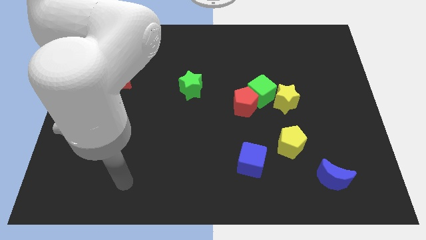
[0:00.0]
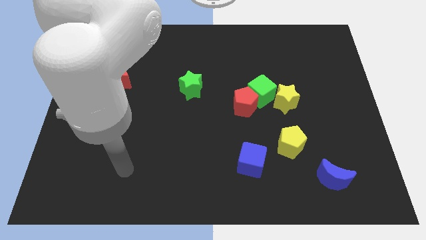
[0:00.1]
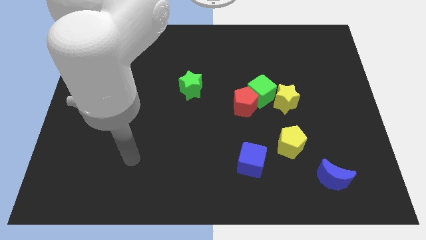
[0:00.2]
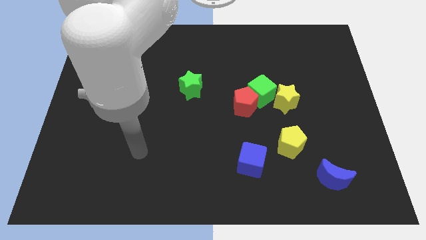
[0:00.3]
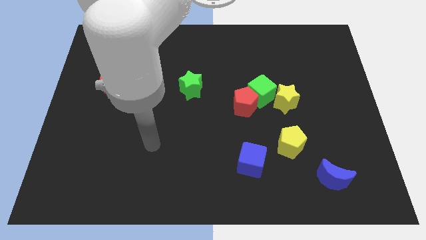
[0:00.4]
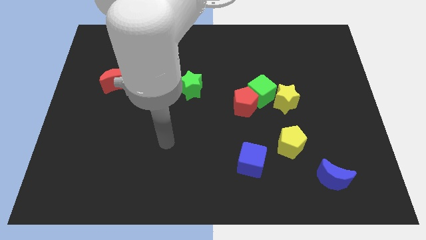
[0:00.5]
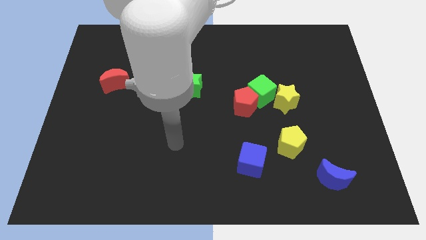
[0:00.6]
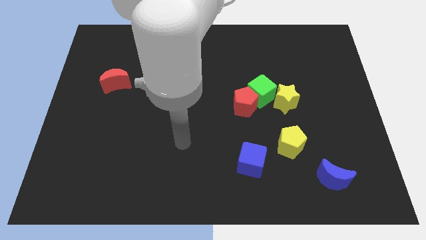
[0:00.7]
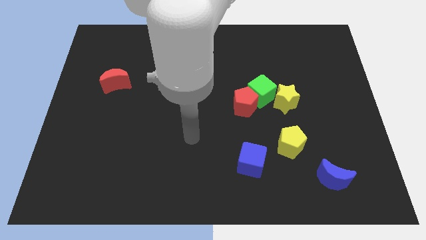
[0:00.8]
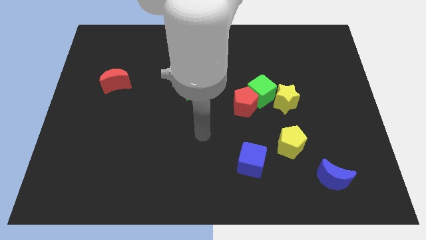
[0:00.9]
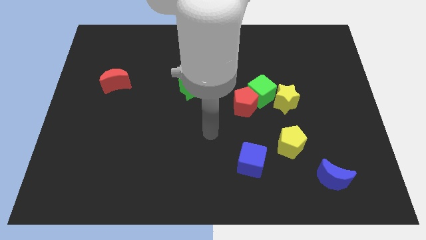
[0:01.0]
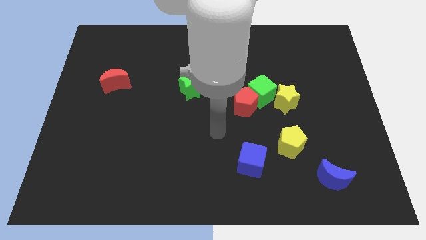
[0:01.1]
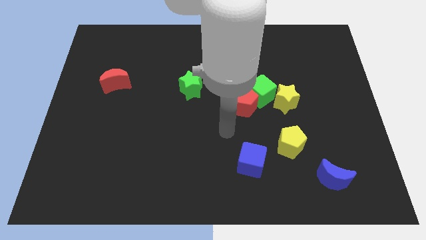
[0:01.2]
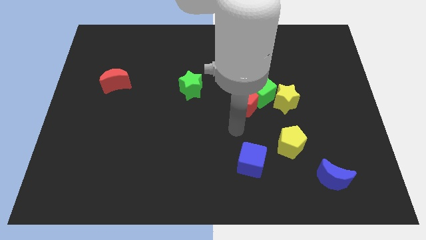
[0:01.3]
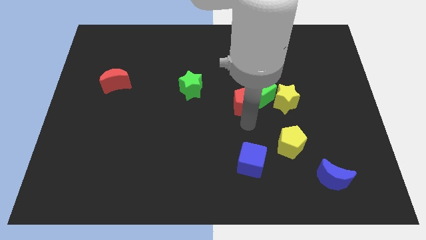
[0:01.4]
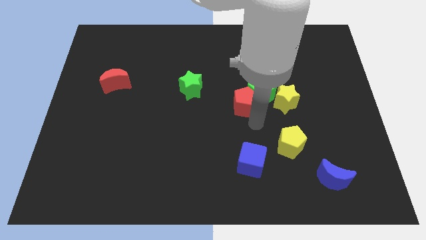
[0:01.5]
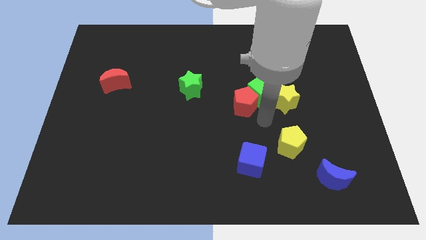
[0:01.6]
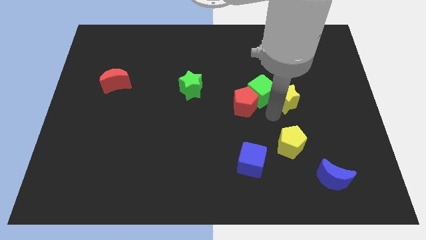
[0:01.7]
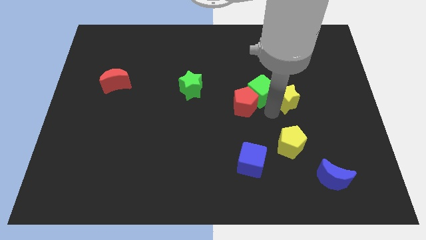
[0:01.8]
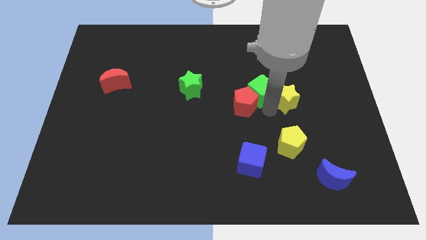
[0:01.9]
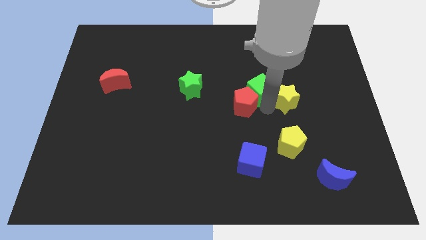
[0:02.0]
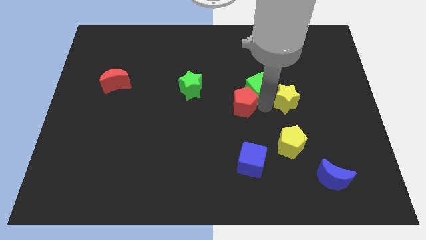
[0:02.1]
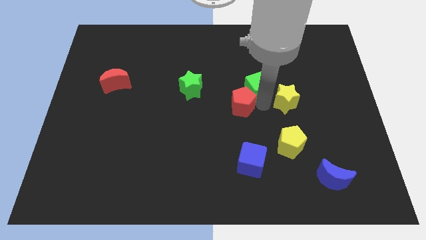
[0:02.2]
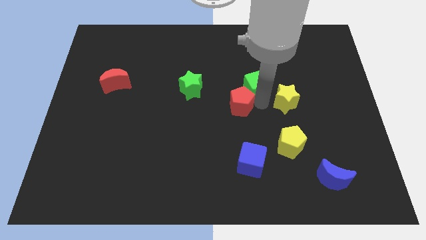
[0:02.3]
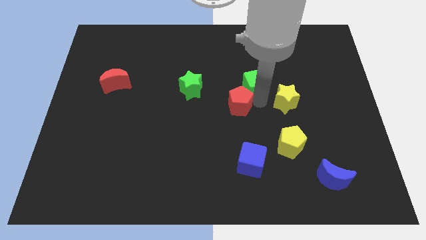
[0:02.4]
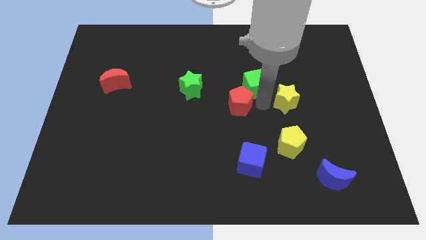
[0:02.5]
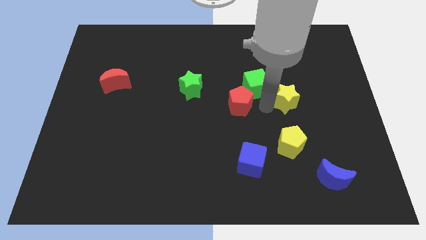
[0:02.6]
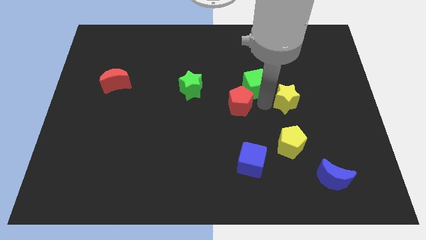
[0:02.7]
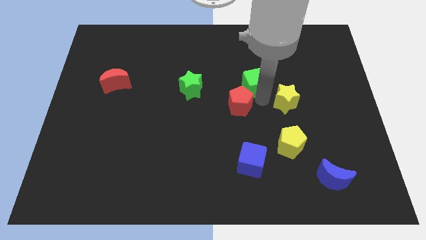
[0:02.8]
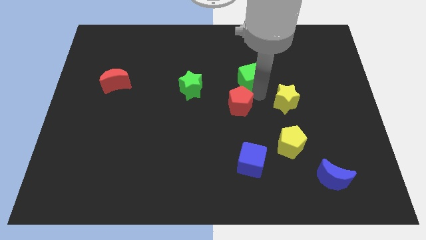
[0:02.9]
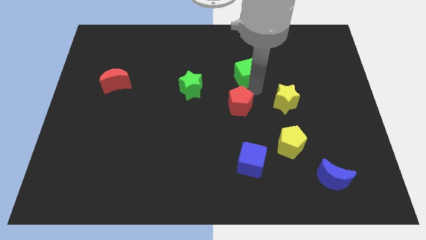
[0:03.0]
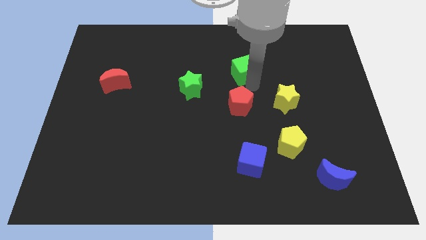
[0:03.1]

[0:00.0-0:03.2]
move the green cube away from the red pentagon and yellow star

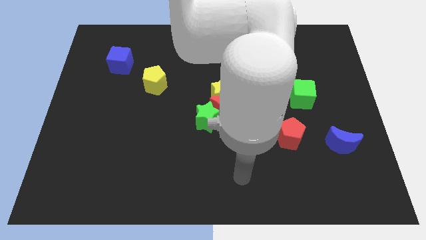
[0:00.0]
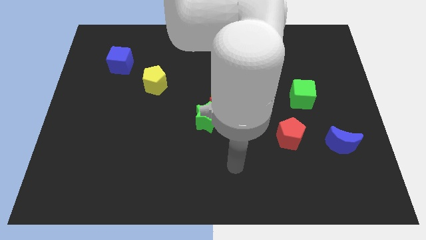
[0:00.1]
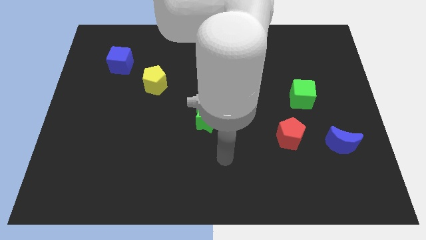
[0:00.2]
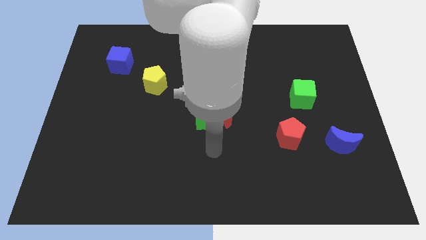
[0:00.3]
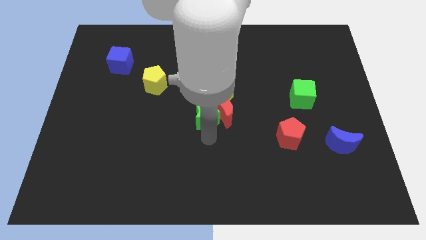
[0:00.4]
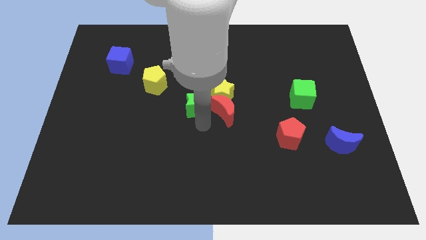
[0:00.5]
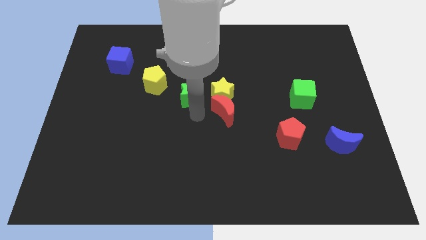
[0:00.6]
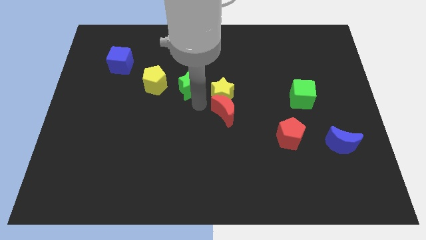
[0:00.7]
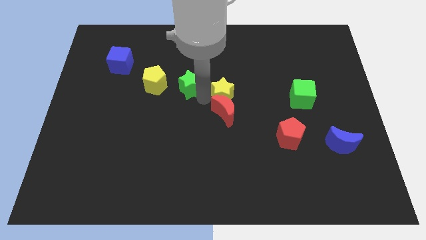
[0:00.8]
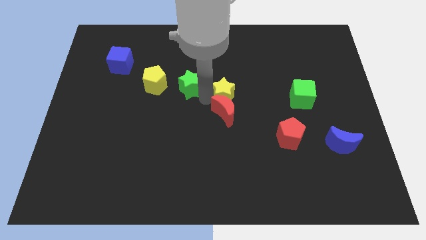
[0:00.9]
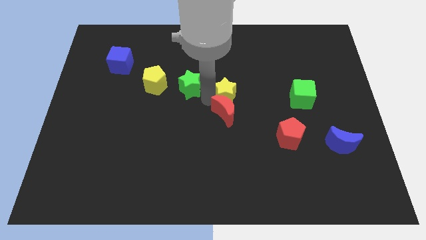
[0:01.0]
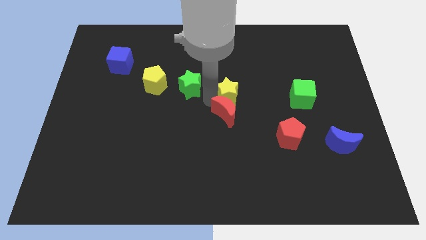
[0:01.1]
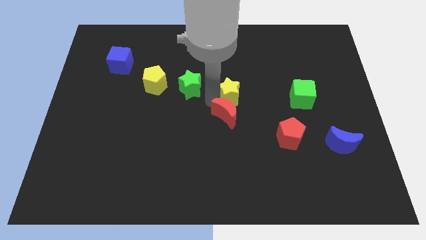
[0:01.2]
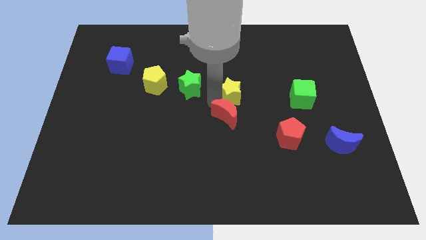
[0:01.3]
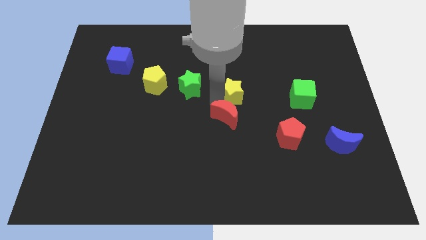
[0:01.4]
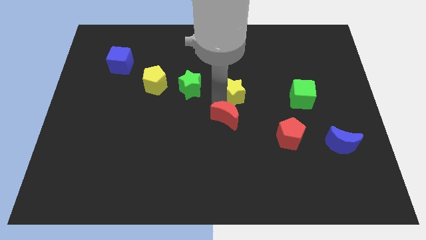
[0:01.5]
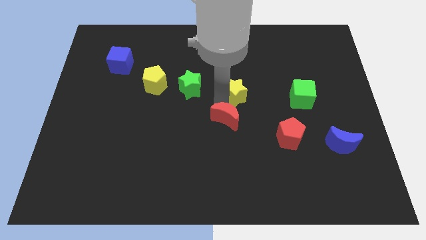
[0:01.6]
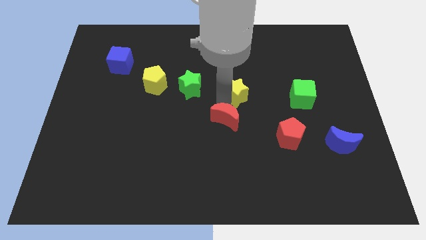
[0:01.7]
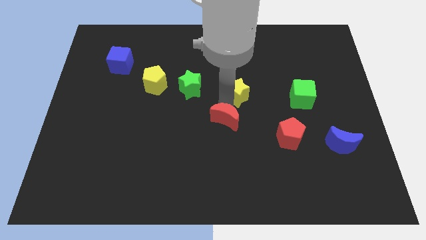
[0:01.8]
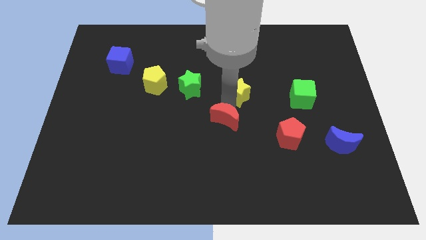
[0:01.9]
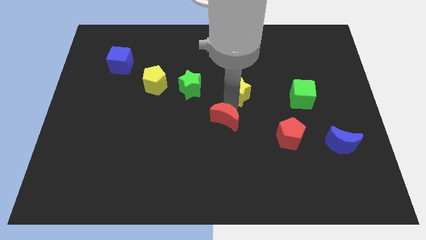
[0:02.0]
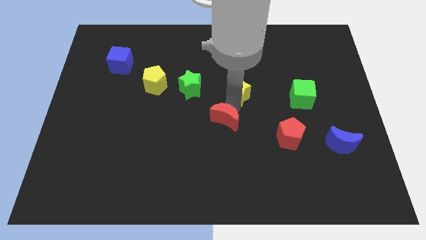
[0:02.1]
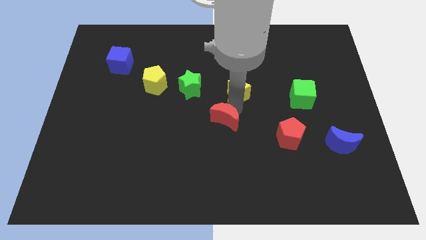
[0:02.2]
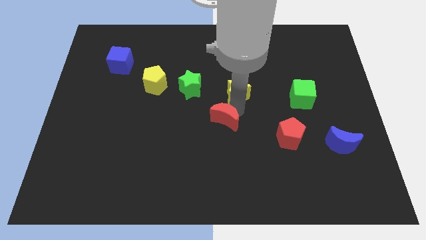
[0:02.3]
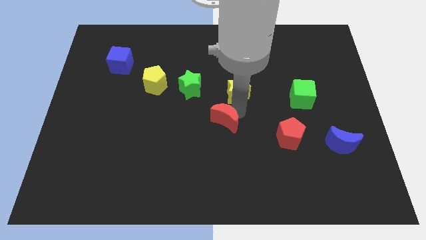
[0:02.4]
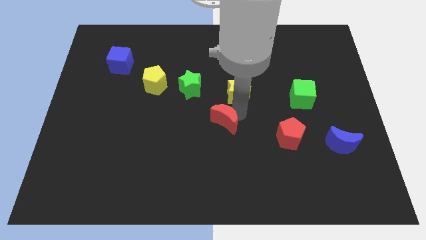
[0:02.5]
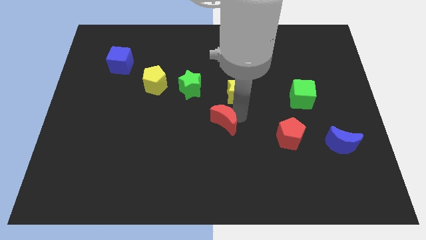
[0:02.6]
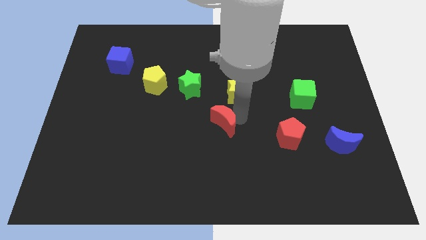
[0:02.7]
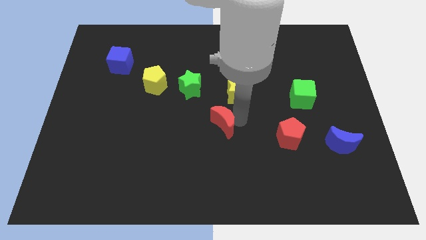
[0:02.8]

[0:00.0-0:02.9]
pull the red moon apart from the green star and yellow star

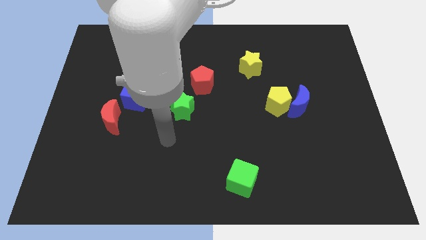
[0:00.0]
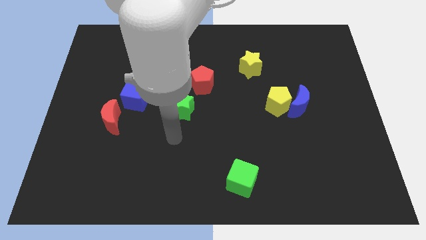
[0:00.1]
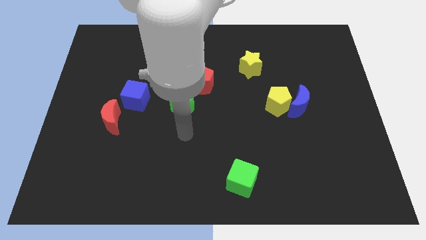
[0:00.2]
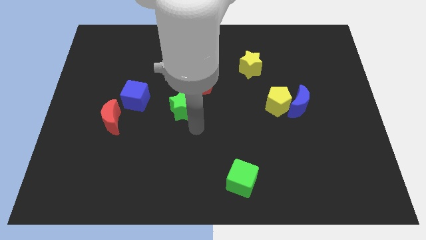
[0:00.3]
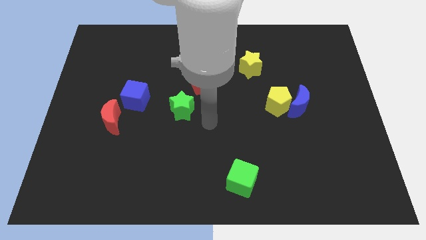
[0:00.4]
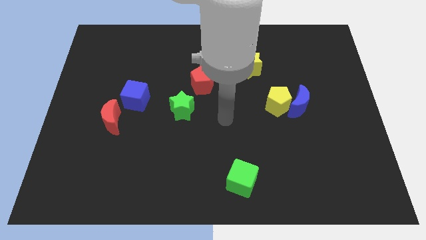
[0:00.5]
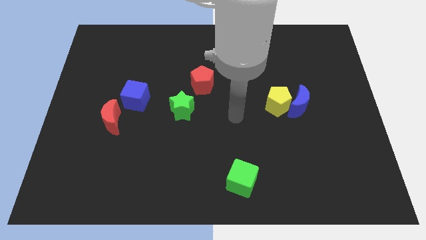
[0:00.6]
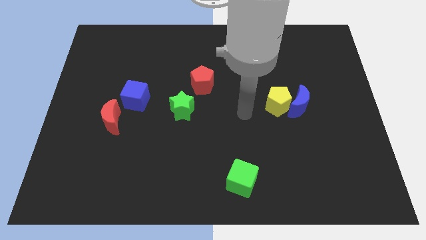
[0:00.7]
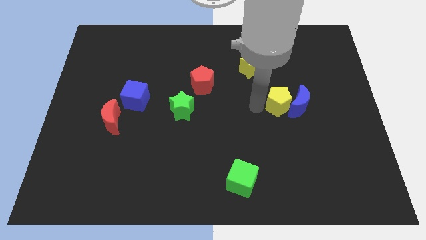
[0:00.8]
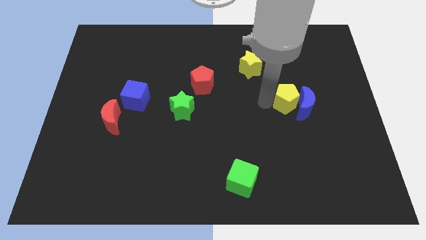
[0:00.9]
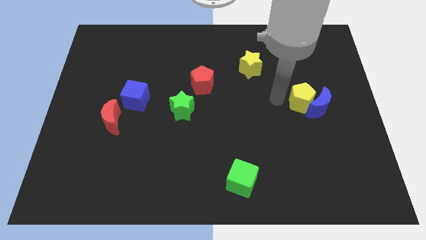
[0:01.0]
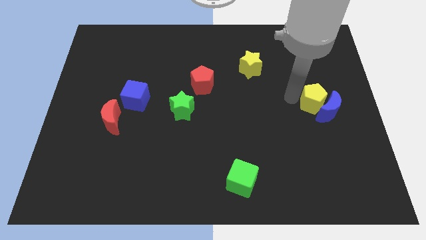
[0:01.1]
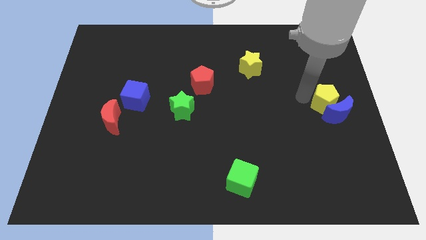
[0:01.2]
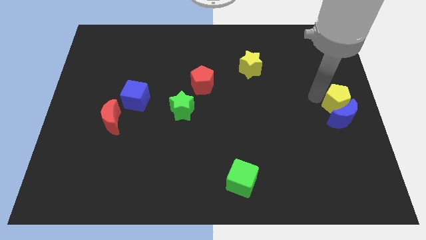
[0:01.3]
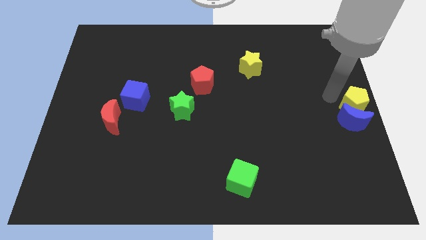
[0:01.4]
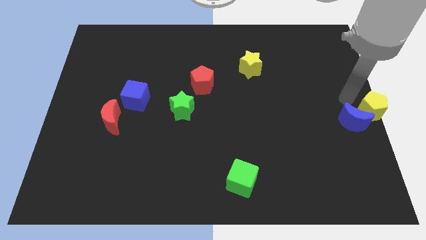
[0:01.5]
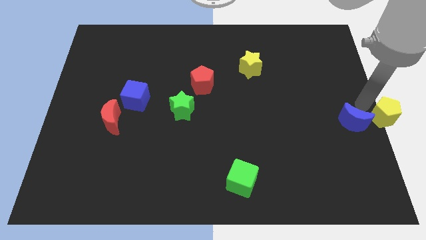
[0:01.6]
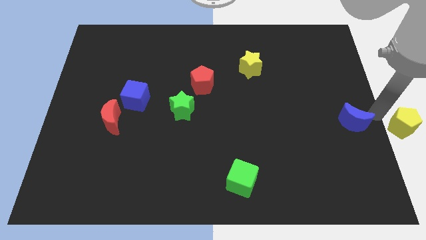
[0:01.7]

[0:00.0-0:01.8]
move the blue moon away from the yellow pentagon

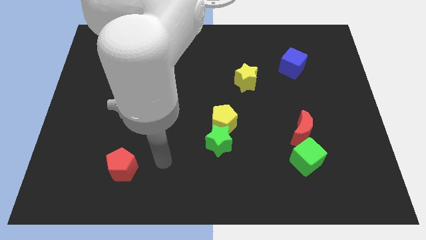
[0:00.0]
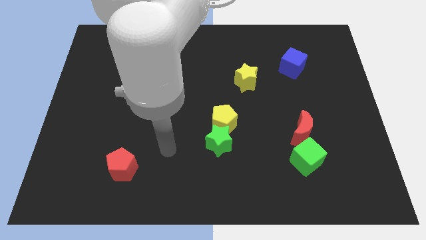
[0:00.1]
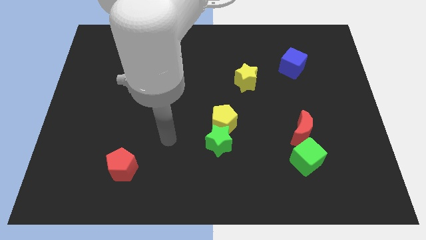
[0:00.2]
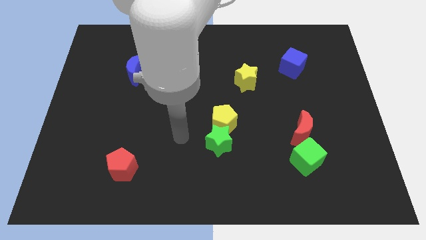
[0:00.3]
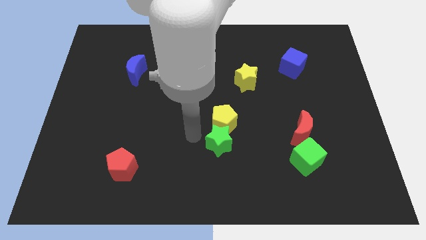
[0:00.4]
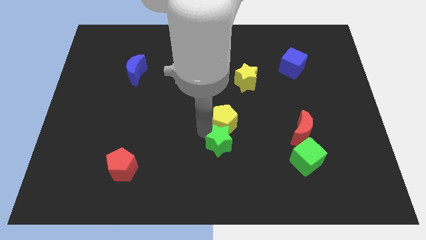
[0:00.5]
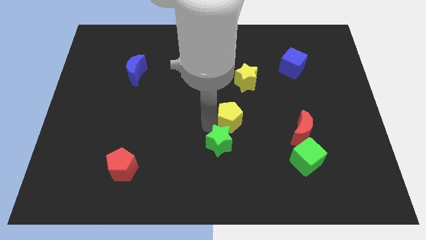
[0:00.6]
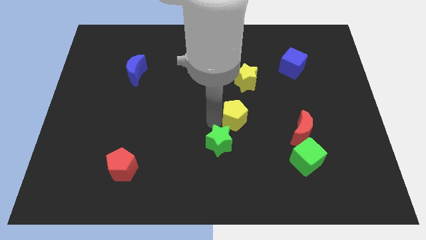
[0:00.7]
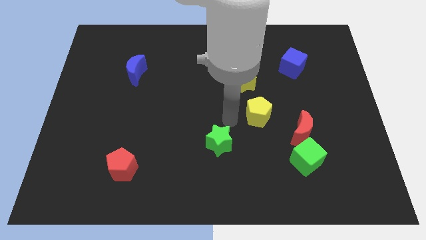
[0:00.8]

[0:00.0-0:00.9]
separate the green star from the yellow pentagon

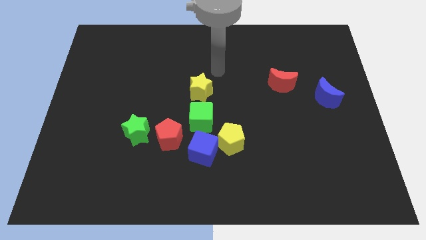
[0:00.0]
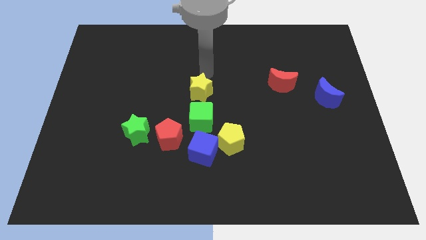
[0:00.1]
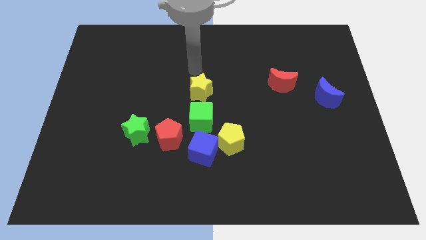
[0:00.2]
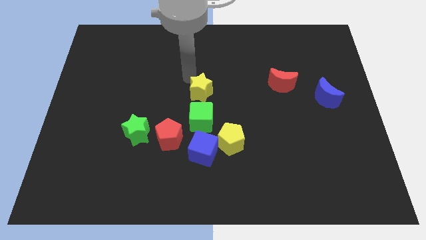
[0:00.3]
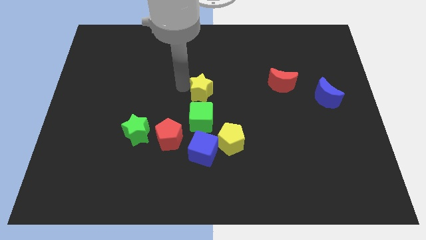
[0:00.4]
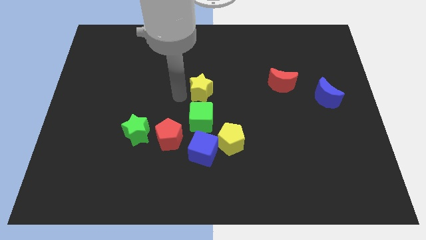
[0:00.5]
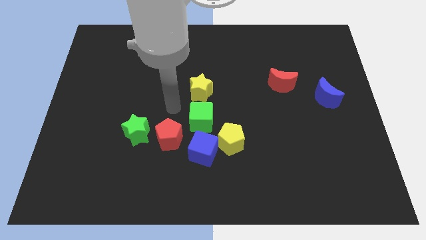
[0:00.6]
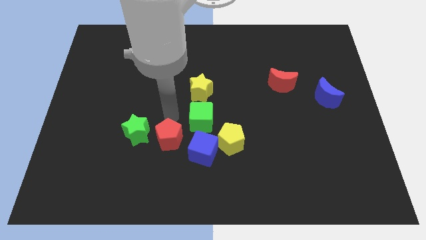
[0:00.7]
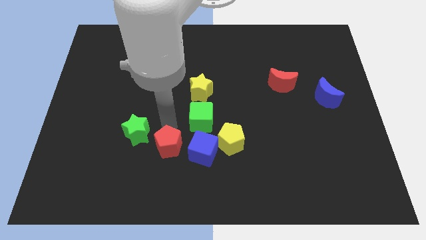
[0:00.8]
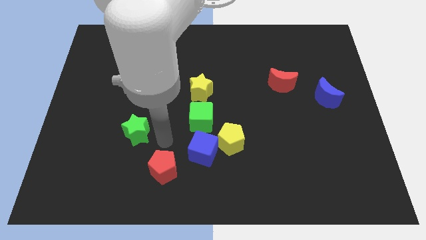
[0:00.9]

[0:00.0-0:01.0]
separate the green star from the red pentagon
